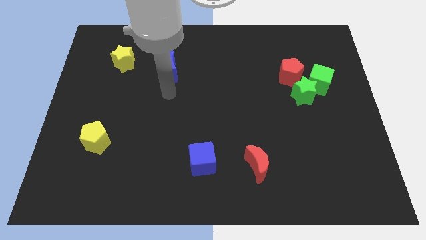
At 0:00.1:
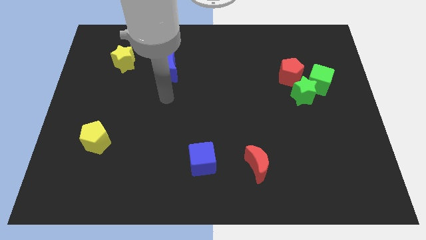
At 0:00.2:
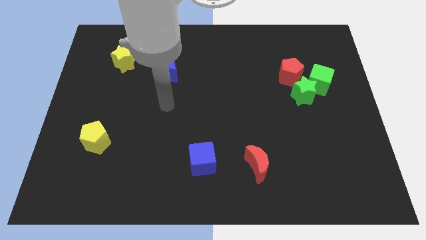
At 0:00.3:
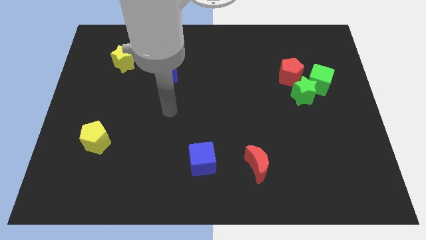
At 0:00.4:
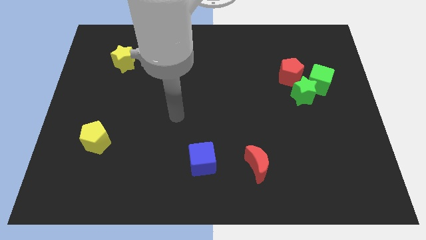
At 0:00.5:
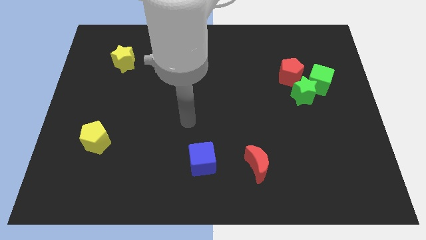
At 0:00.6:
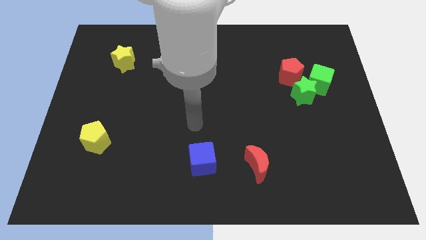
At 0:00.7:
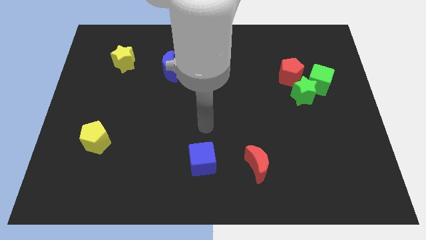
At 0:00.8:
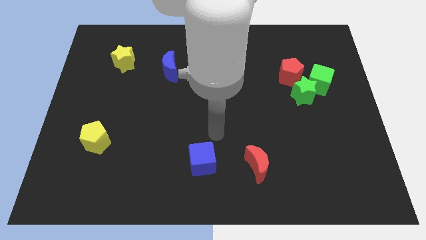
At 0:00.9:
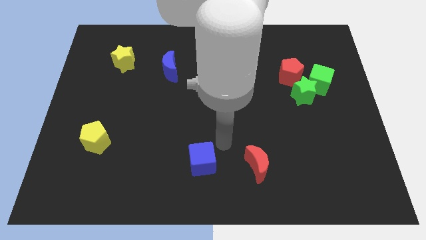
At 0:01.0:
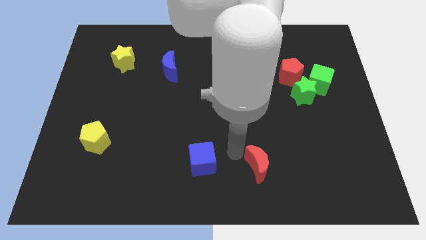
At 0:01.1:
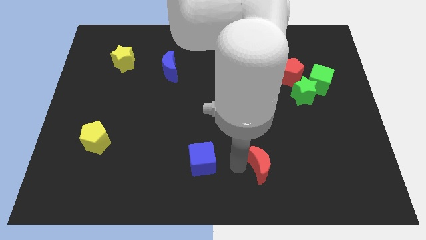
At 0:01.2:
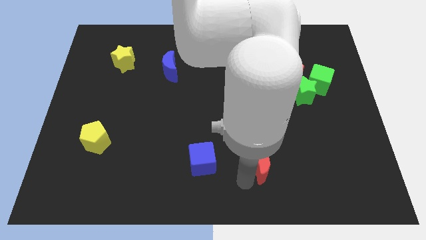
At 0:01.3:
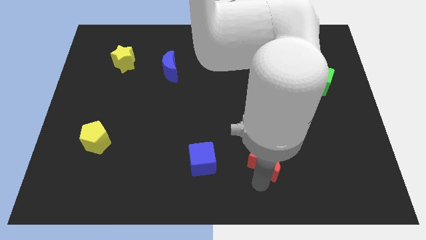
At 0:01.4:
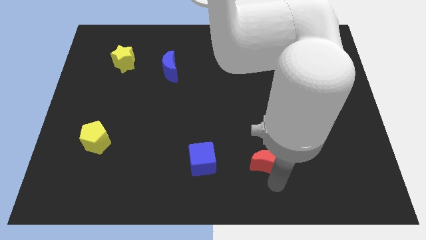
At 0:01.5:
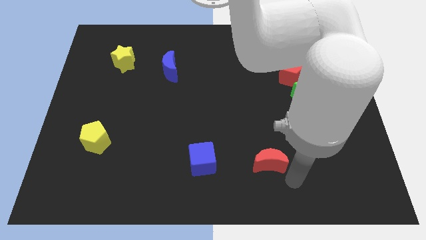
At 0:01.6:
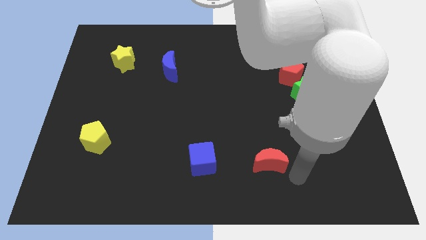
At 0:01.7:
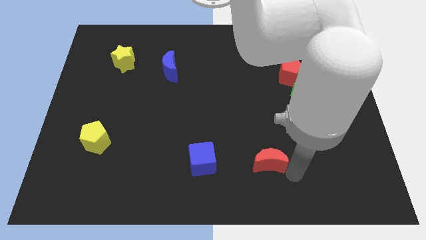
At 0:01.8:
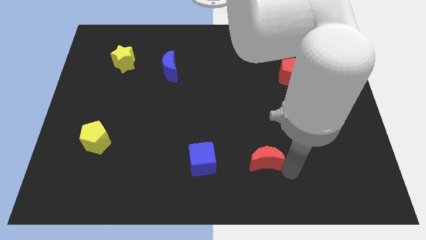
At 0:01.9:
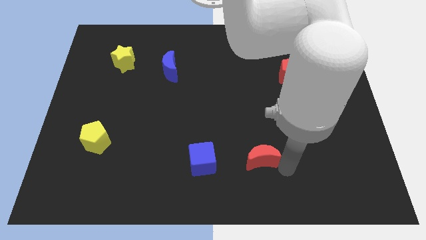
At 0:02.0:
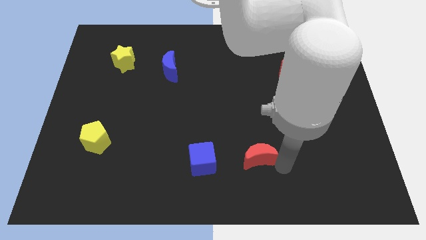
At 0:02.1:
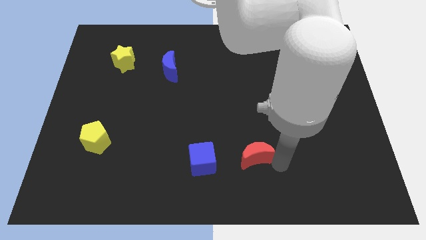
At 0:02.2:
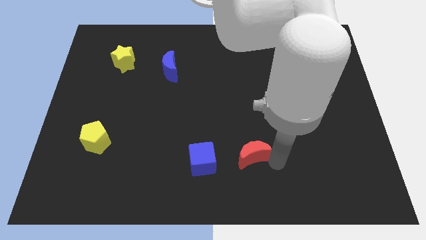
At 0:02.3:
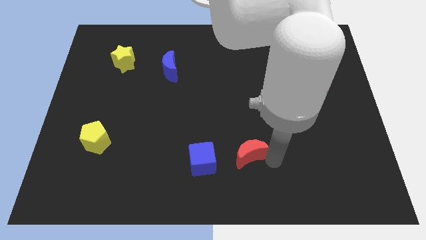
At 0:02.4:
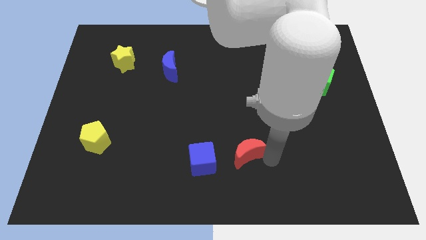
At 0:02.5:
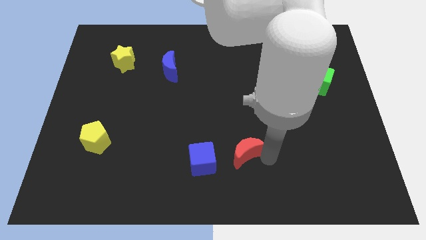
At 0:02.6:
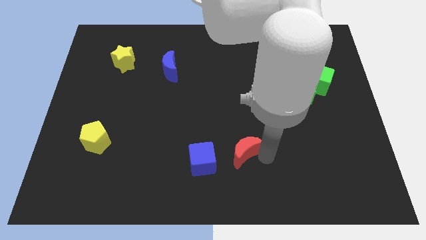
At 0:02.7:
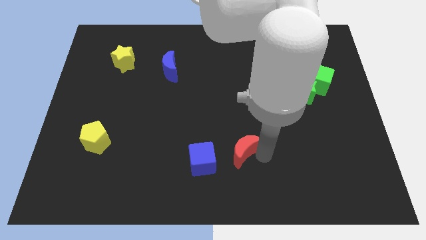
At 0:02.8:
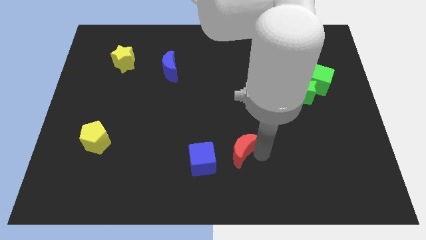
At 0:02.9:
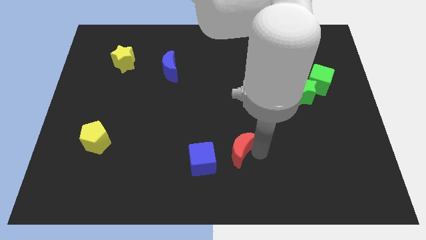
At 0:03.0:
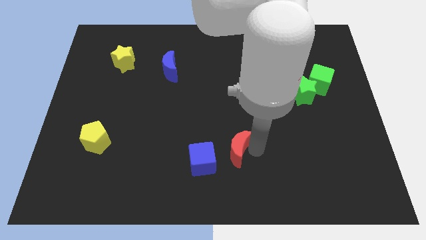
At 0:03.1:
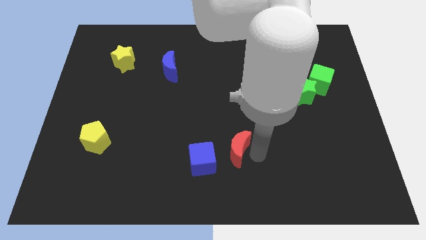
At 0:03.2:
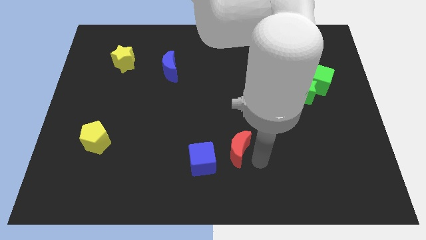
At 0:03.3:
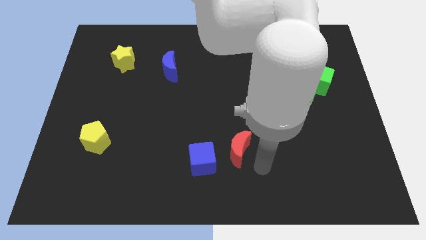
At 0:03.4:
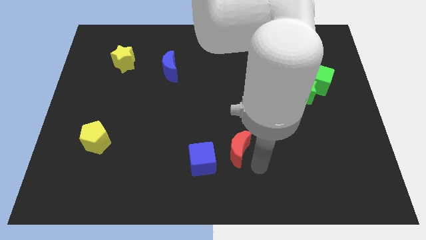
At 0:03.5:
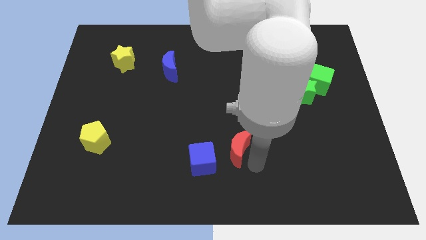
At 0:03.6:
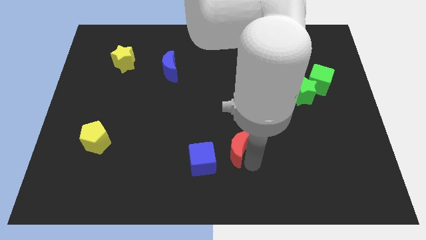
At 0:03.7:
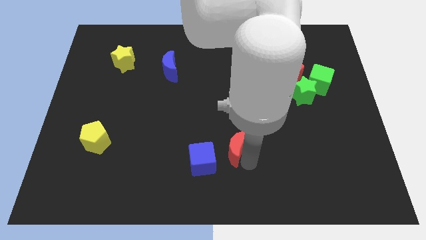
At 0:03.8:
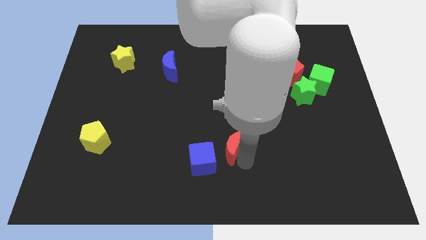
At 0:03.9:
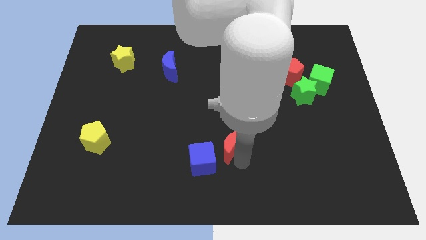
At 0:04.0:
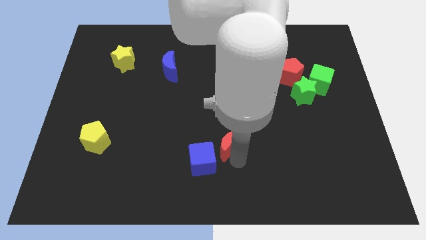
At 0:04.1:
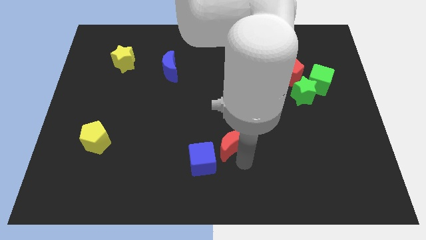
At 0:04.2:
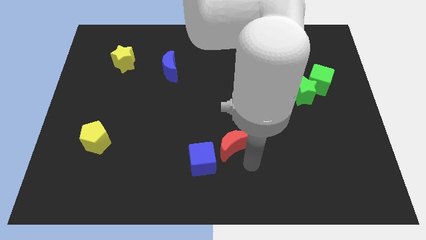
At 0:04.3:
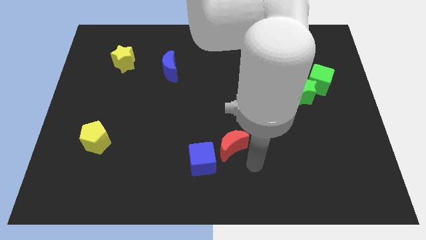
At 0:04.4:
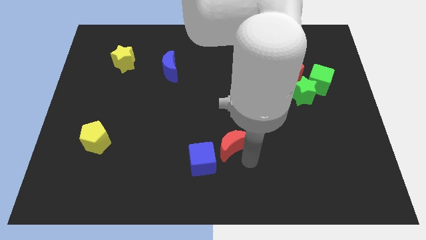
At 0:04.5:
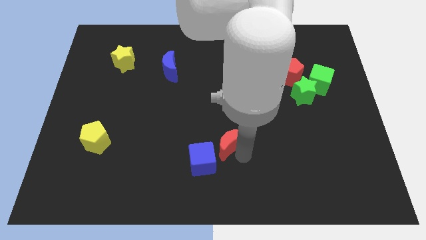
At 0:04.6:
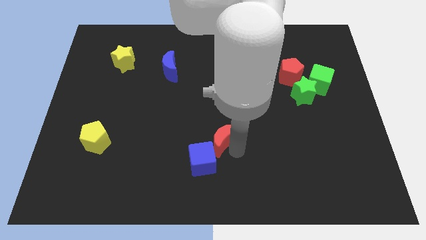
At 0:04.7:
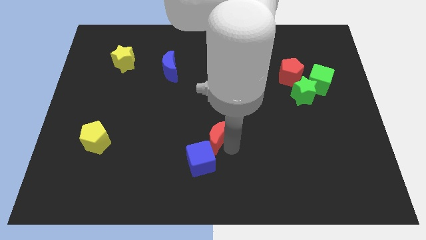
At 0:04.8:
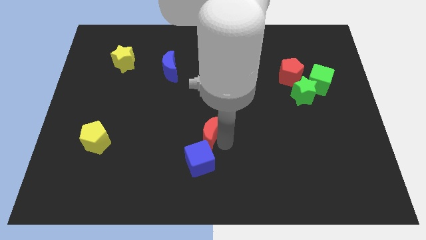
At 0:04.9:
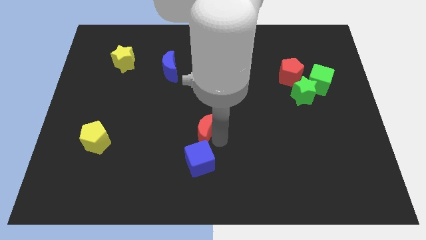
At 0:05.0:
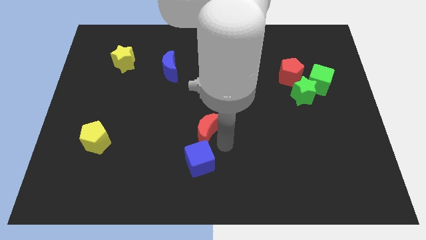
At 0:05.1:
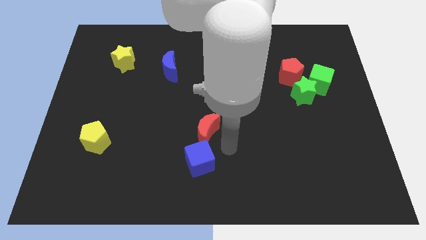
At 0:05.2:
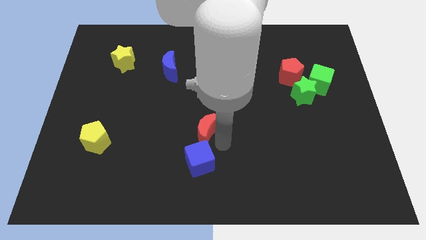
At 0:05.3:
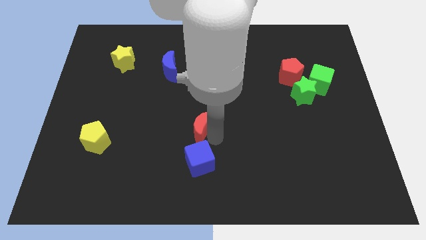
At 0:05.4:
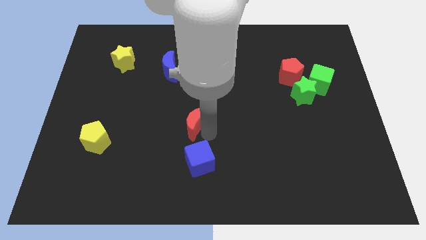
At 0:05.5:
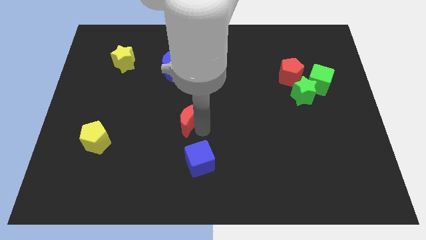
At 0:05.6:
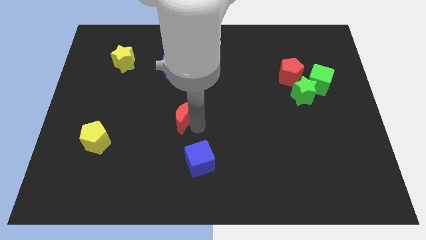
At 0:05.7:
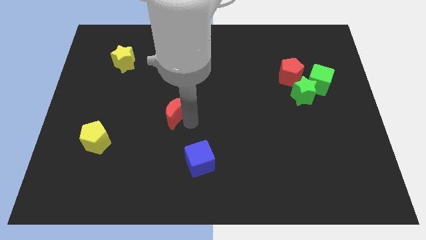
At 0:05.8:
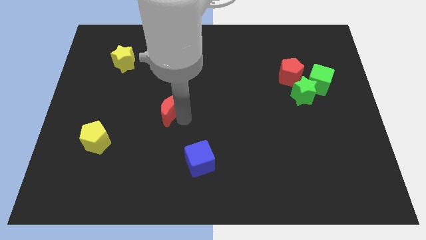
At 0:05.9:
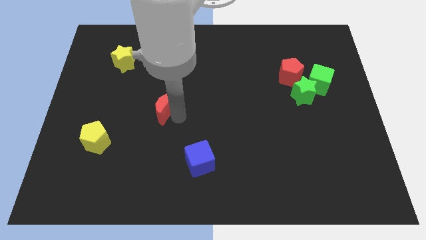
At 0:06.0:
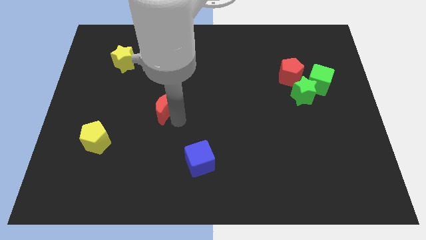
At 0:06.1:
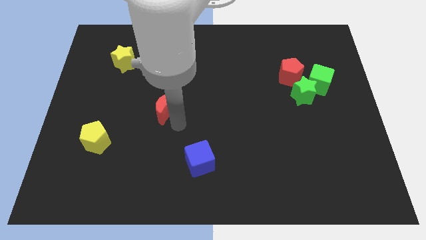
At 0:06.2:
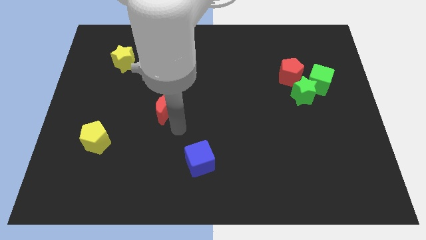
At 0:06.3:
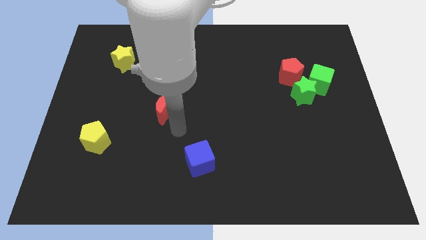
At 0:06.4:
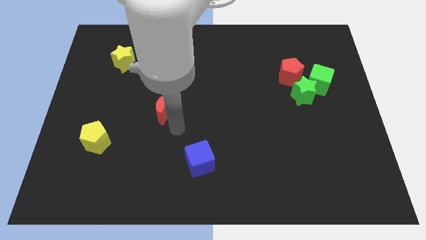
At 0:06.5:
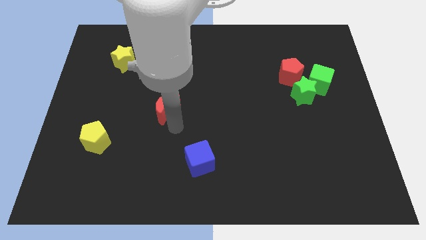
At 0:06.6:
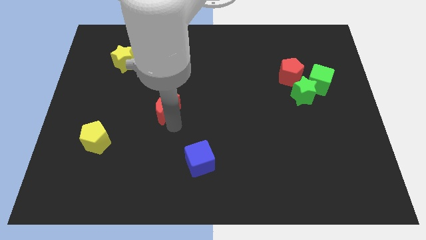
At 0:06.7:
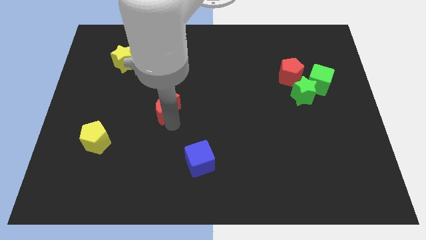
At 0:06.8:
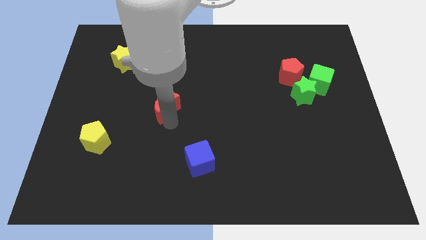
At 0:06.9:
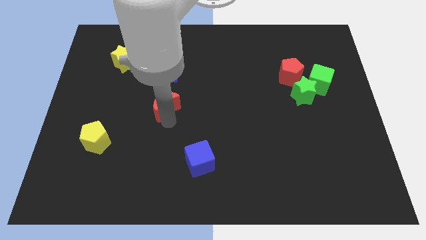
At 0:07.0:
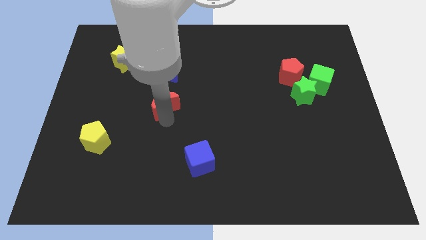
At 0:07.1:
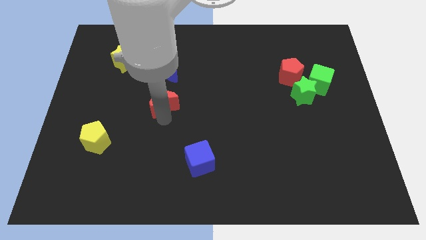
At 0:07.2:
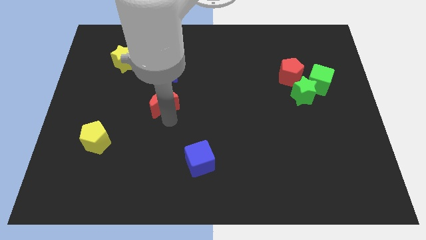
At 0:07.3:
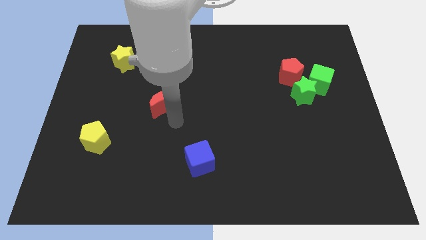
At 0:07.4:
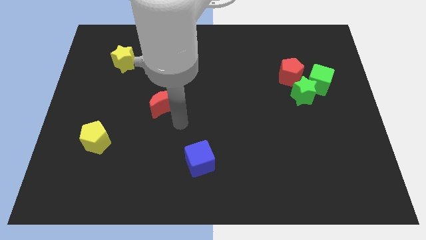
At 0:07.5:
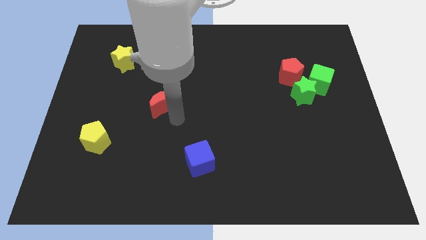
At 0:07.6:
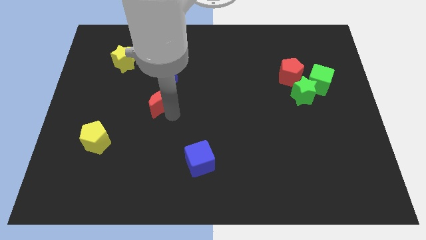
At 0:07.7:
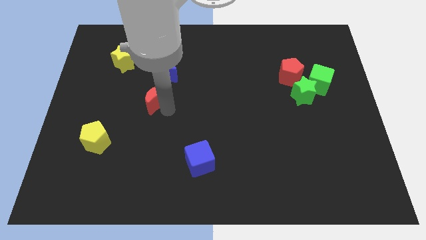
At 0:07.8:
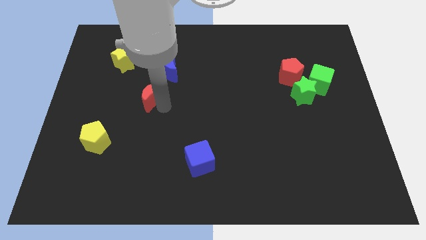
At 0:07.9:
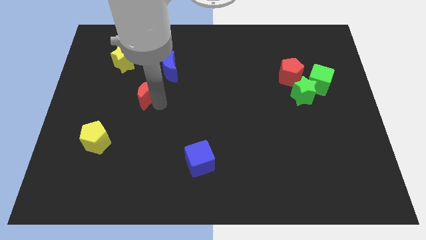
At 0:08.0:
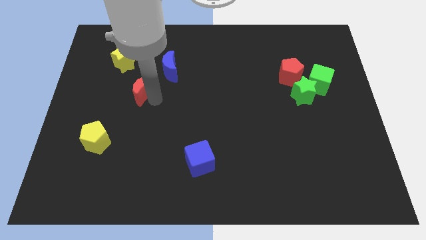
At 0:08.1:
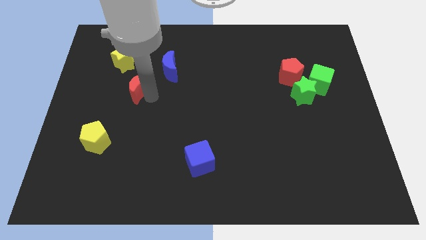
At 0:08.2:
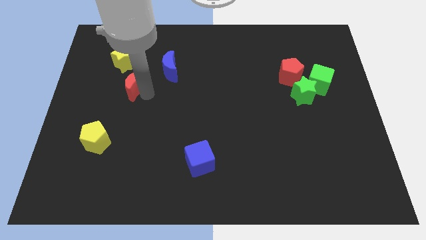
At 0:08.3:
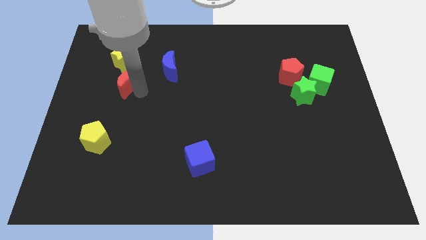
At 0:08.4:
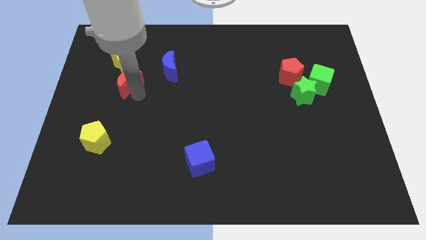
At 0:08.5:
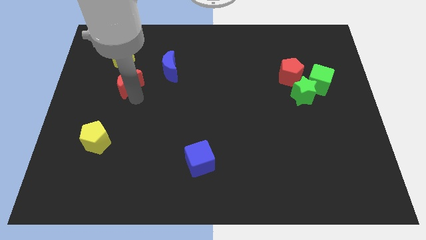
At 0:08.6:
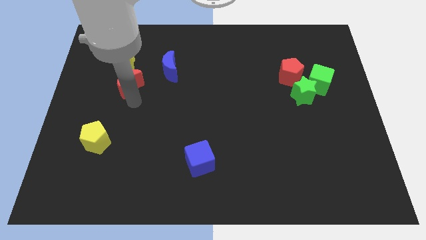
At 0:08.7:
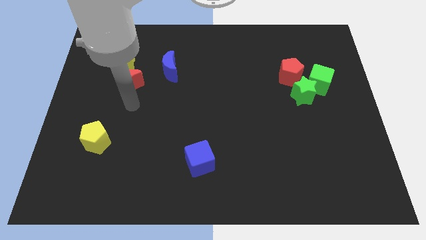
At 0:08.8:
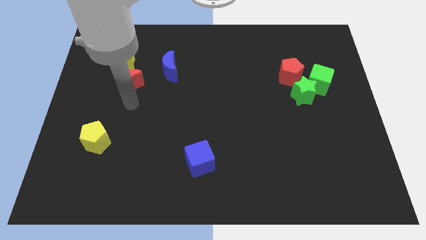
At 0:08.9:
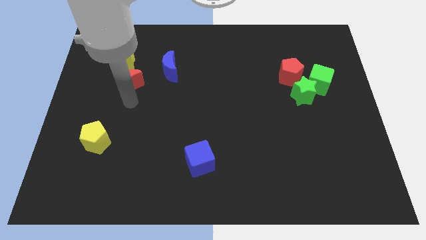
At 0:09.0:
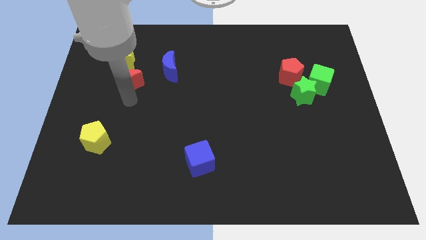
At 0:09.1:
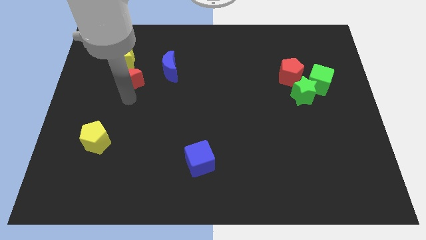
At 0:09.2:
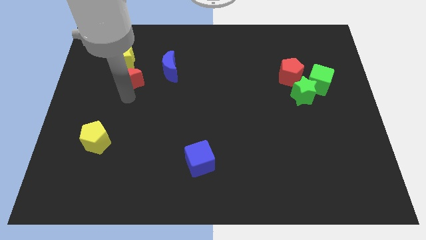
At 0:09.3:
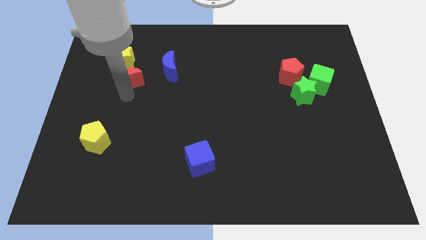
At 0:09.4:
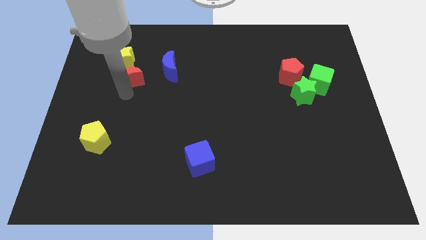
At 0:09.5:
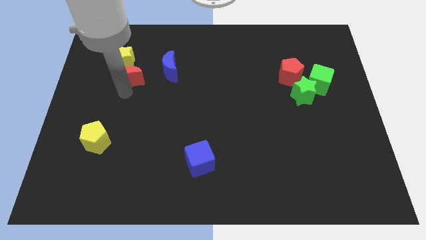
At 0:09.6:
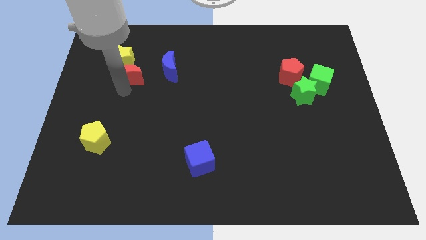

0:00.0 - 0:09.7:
slide the red moon close to the yellow star
